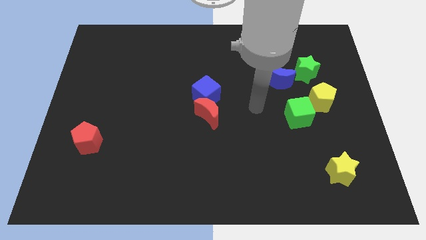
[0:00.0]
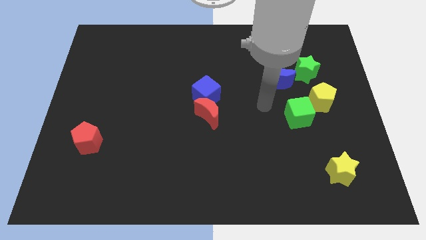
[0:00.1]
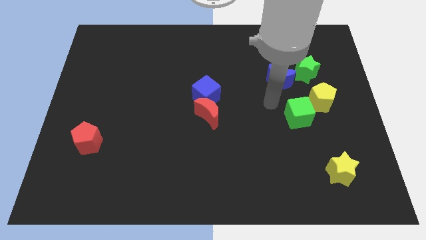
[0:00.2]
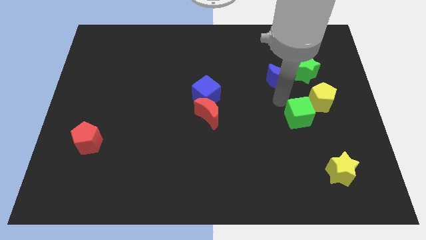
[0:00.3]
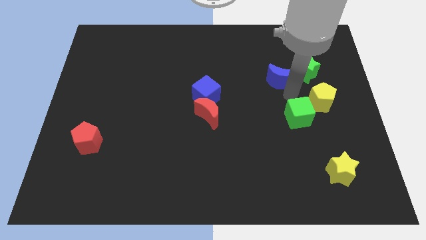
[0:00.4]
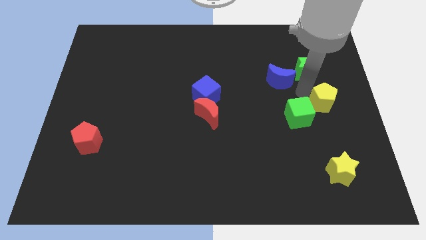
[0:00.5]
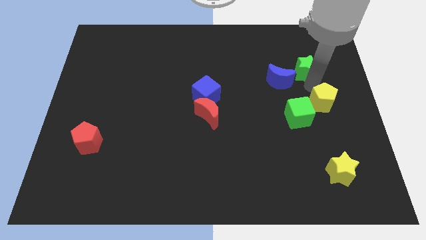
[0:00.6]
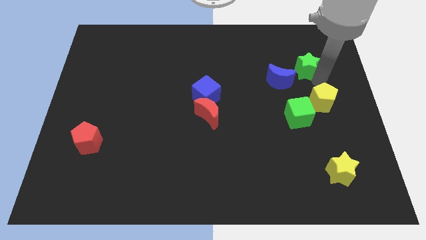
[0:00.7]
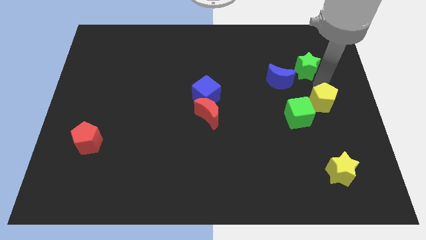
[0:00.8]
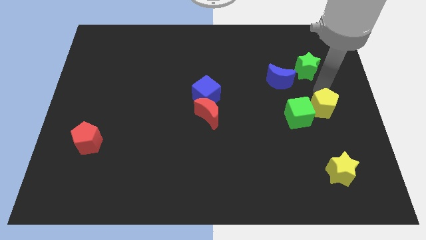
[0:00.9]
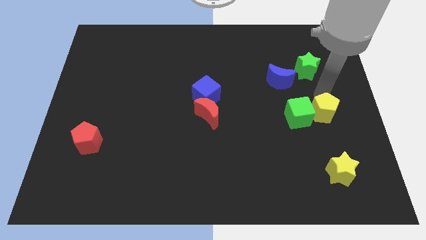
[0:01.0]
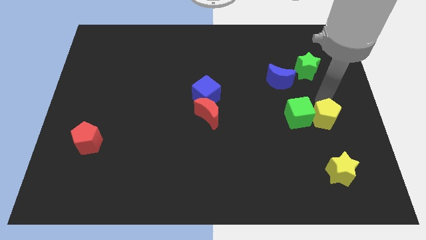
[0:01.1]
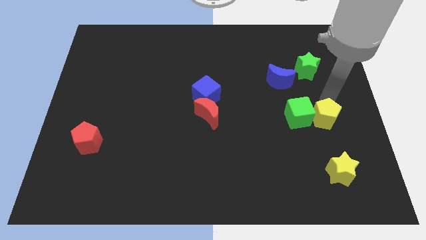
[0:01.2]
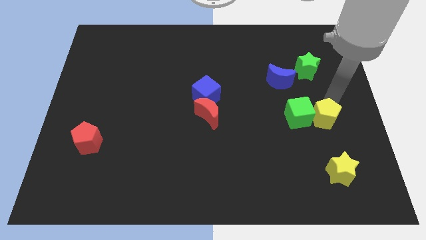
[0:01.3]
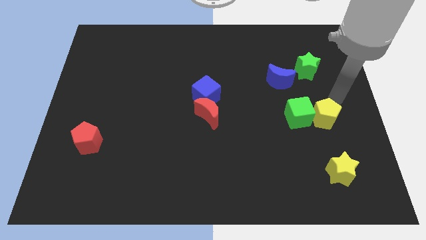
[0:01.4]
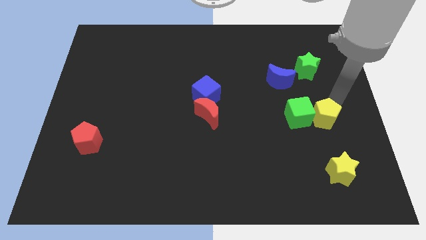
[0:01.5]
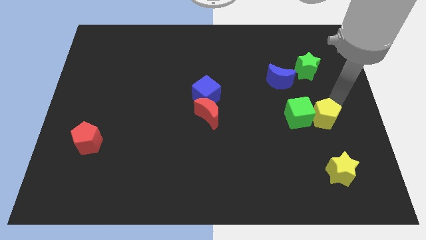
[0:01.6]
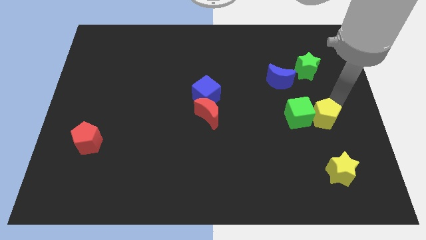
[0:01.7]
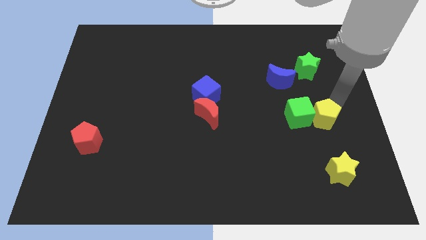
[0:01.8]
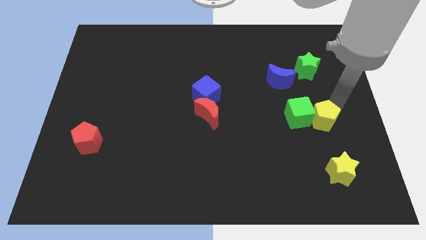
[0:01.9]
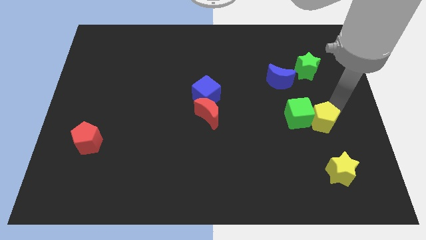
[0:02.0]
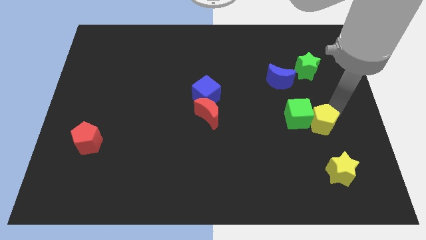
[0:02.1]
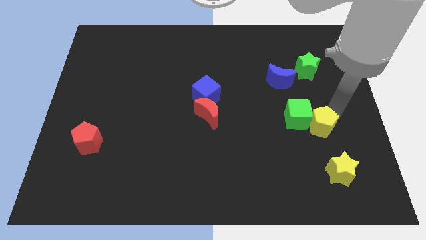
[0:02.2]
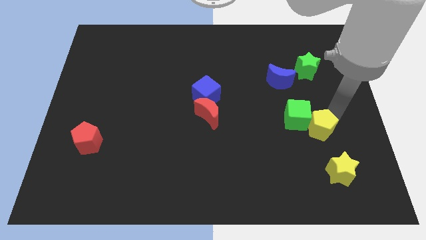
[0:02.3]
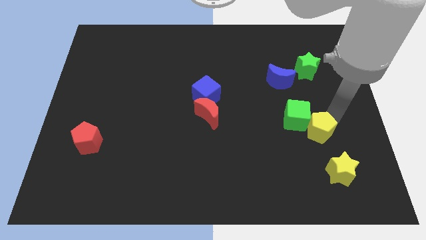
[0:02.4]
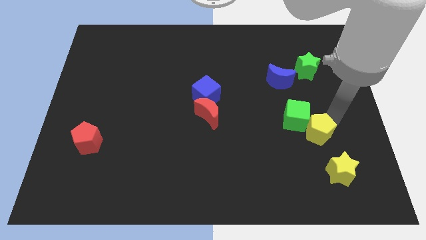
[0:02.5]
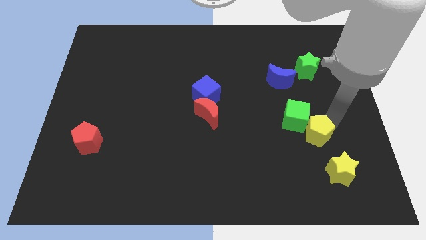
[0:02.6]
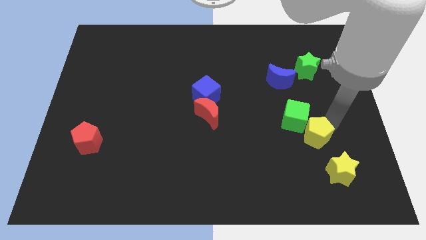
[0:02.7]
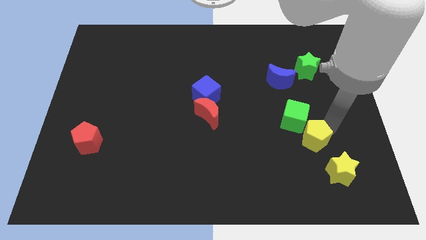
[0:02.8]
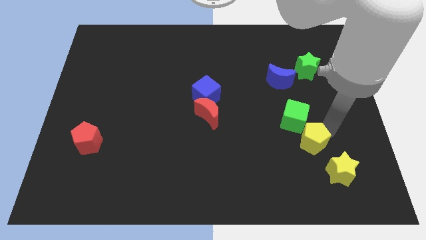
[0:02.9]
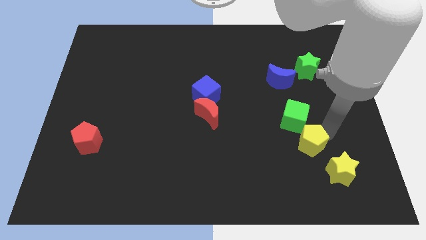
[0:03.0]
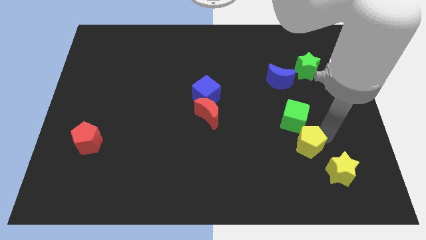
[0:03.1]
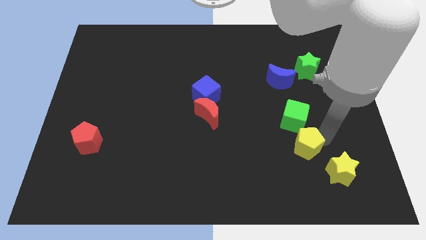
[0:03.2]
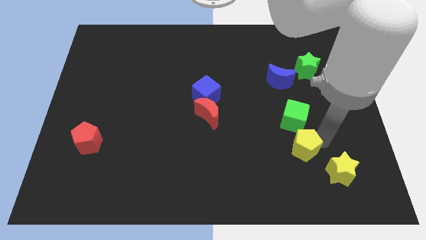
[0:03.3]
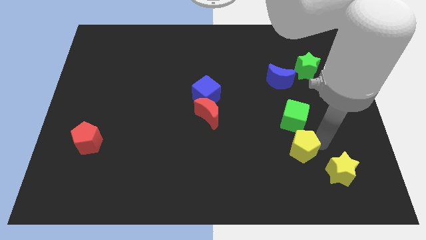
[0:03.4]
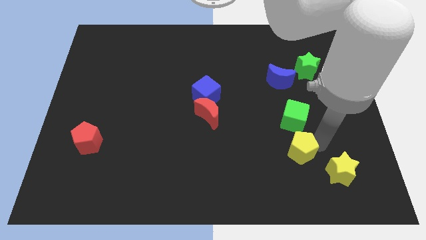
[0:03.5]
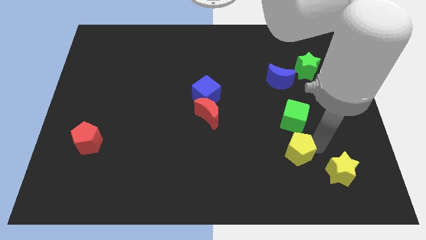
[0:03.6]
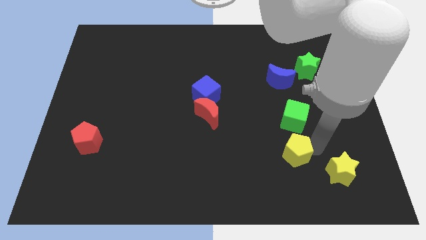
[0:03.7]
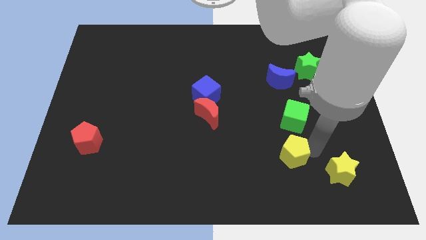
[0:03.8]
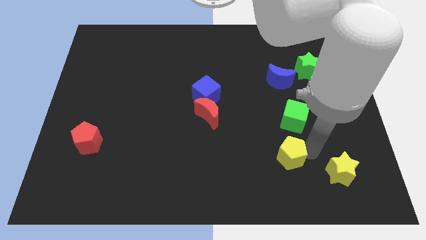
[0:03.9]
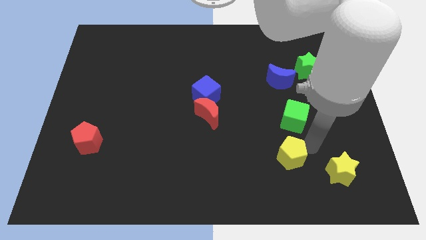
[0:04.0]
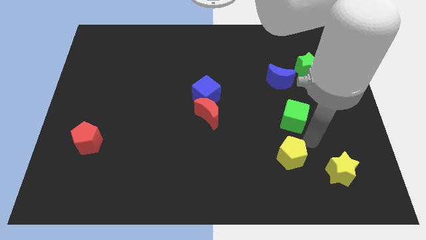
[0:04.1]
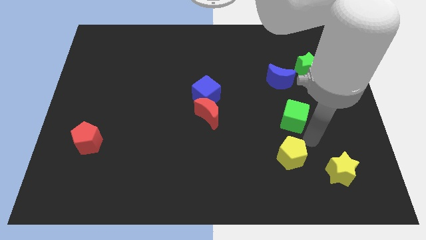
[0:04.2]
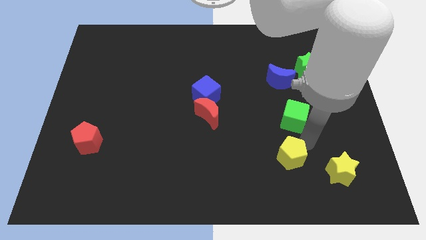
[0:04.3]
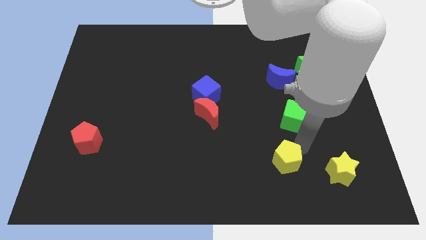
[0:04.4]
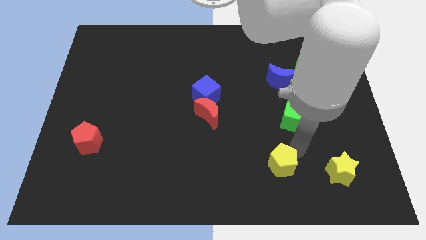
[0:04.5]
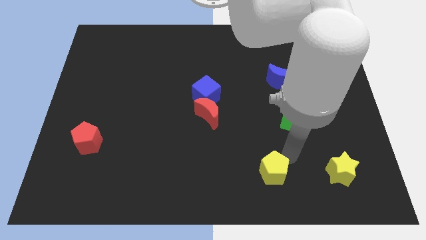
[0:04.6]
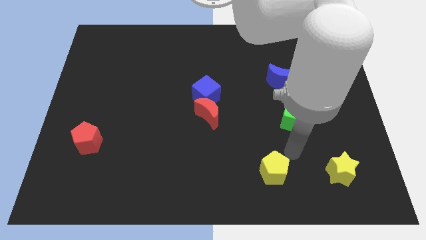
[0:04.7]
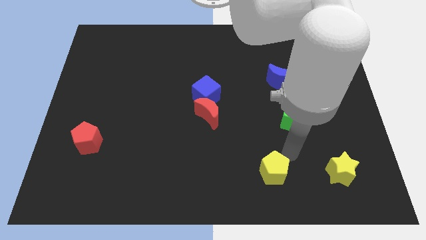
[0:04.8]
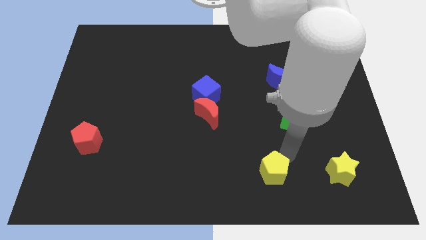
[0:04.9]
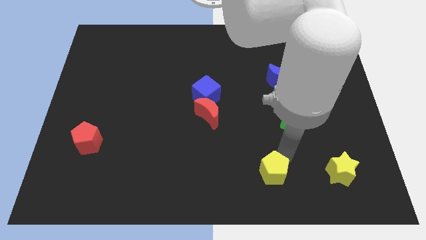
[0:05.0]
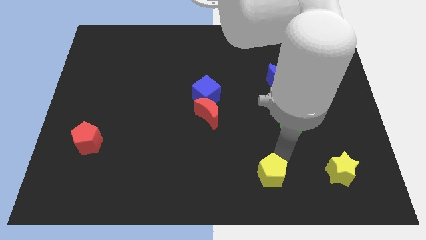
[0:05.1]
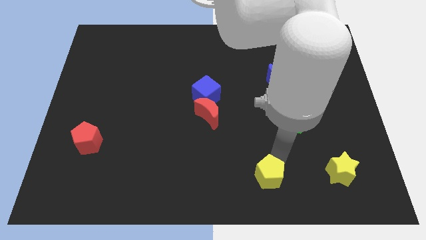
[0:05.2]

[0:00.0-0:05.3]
slide the yellow pentagon to the bottom side
